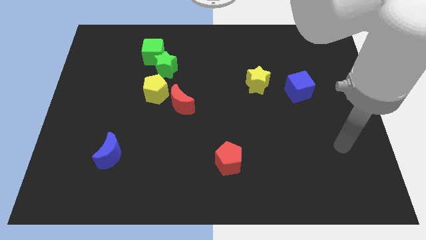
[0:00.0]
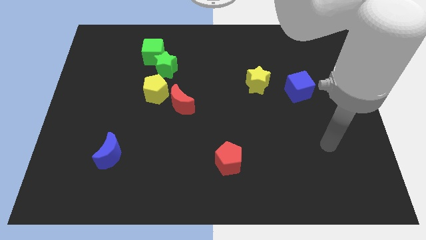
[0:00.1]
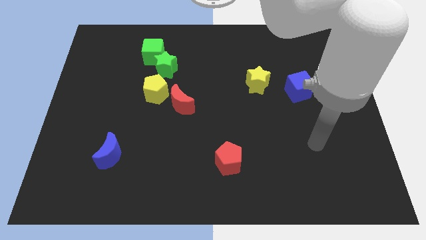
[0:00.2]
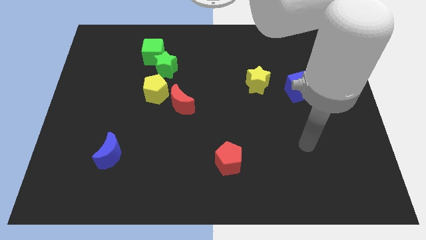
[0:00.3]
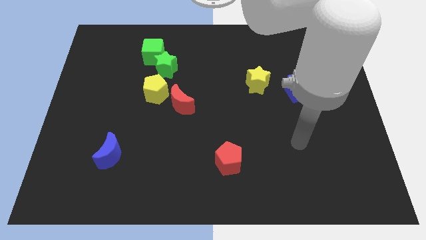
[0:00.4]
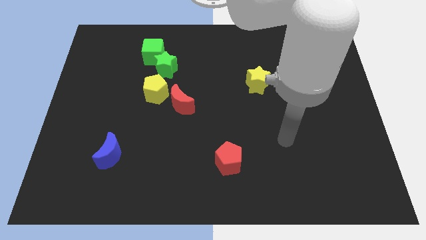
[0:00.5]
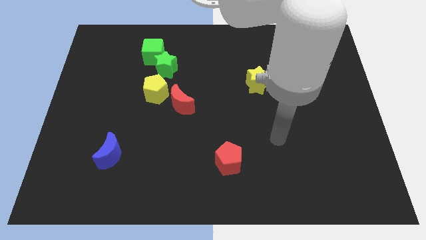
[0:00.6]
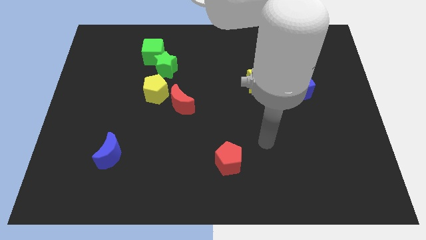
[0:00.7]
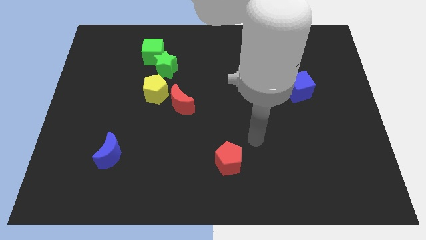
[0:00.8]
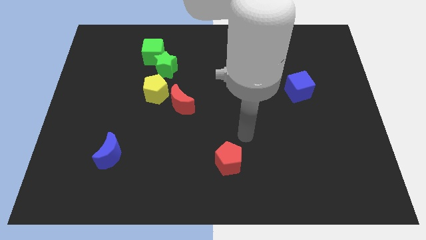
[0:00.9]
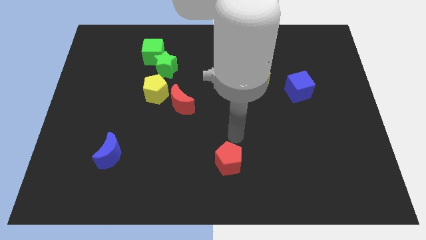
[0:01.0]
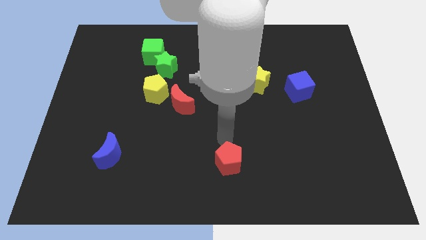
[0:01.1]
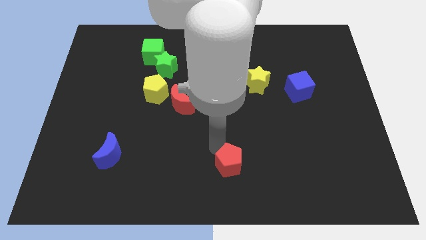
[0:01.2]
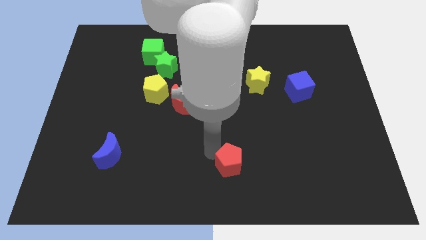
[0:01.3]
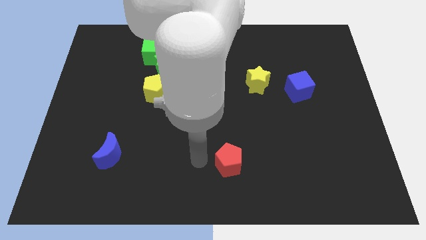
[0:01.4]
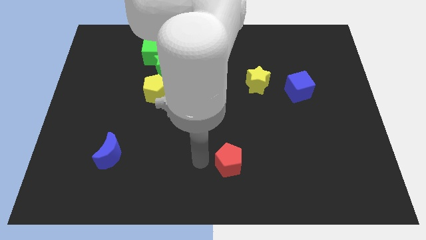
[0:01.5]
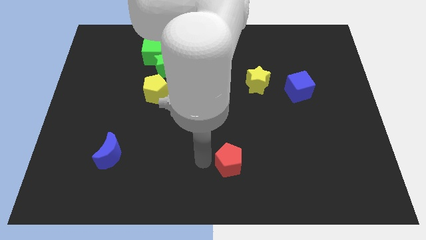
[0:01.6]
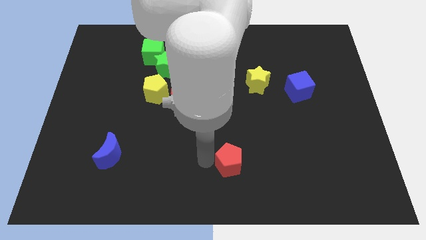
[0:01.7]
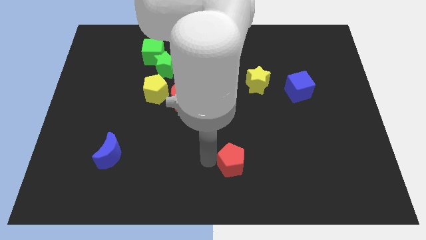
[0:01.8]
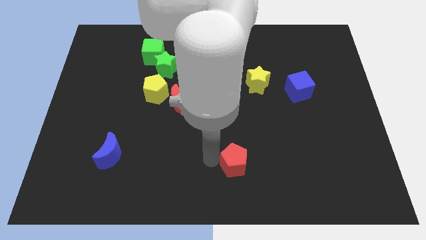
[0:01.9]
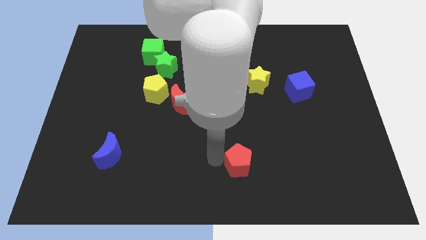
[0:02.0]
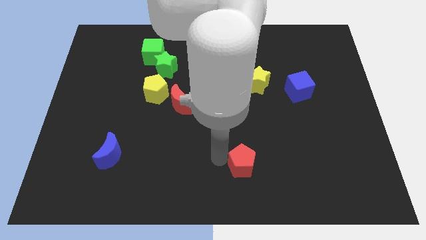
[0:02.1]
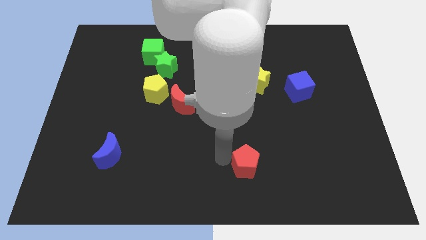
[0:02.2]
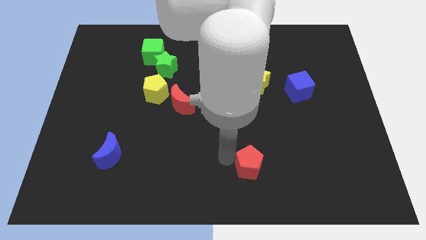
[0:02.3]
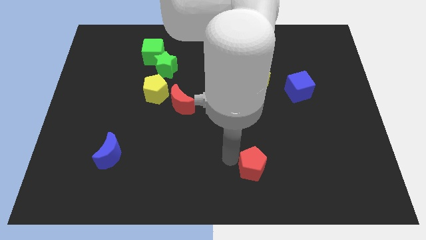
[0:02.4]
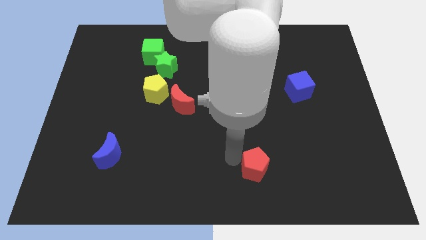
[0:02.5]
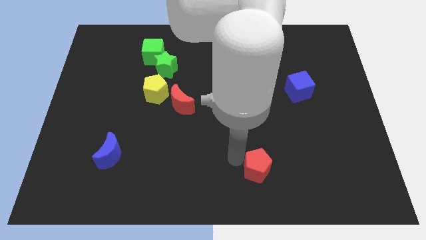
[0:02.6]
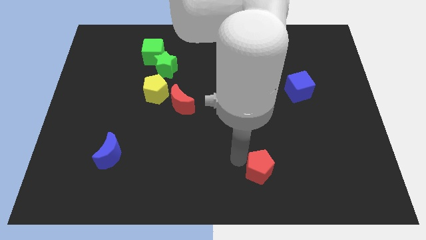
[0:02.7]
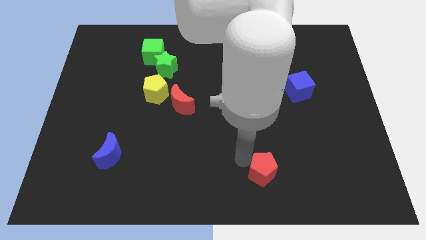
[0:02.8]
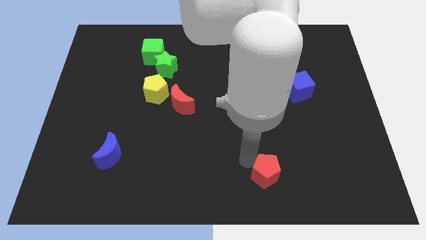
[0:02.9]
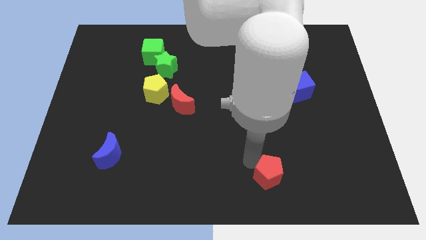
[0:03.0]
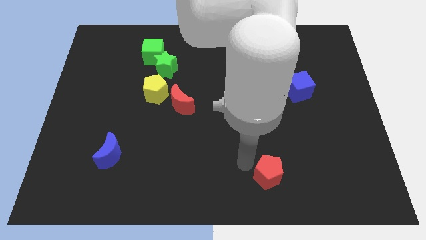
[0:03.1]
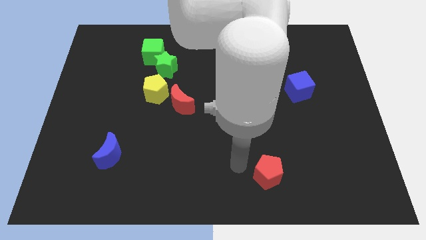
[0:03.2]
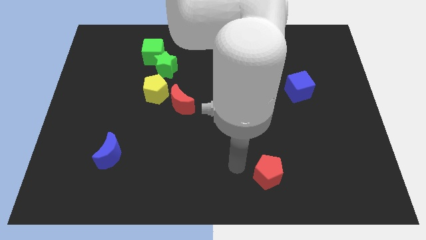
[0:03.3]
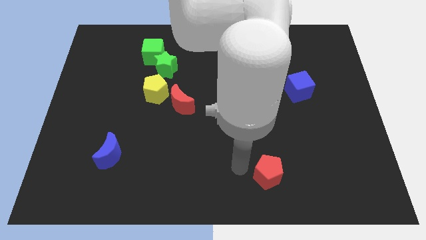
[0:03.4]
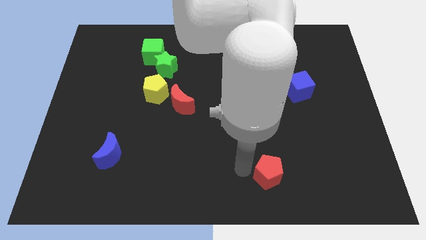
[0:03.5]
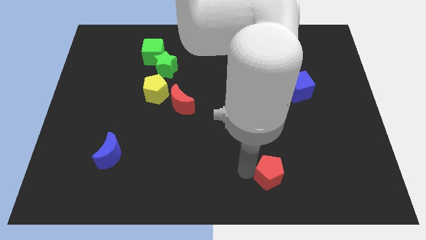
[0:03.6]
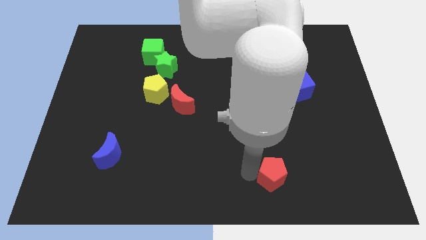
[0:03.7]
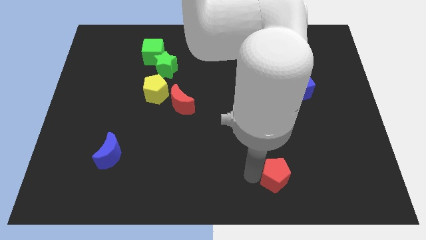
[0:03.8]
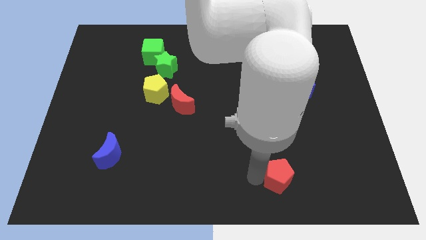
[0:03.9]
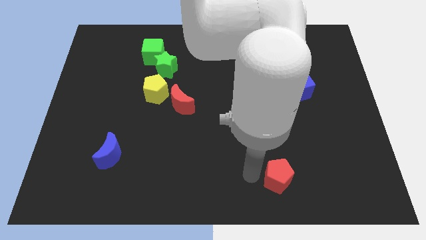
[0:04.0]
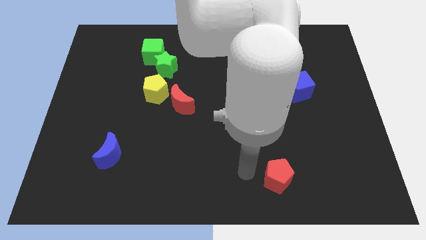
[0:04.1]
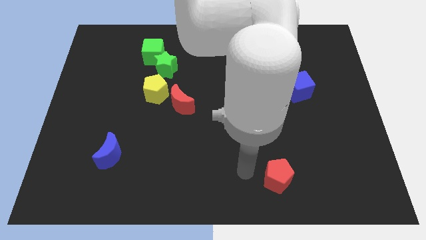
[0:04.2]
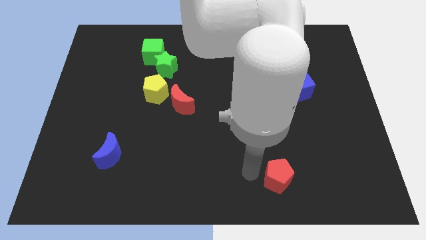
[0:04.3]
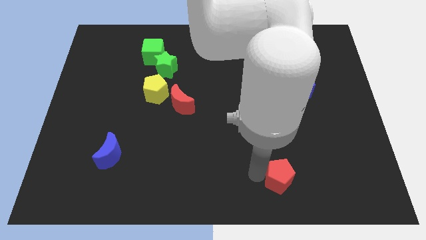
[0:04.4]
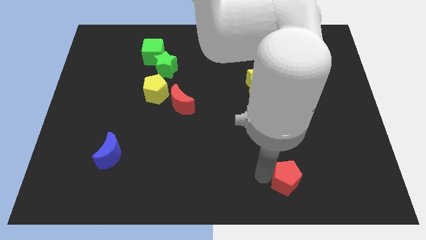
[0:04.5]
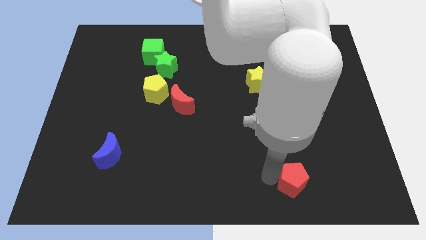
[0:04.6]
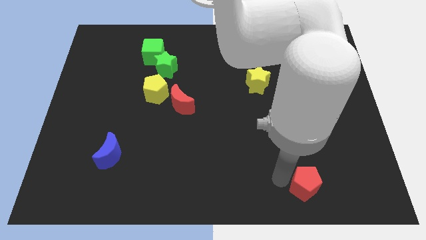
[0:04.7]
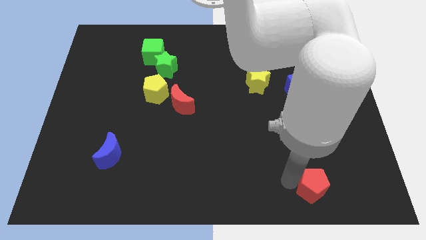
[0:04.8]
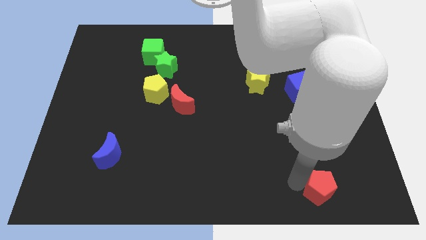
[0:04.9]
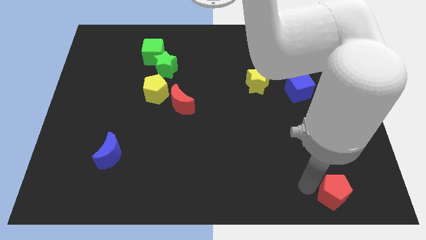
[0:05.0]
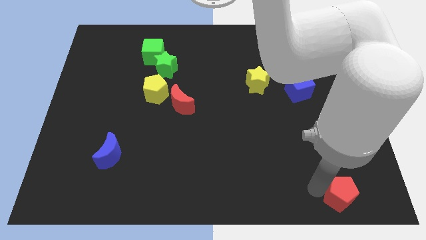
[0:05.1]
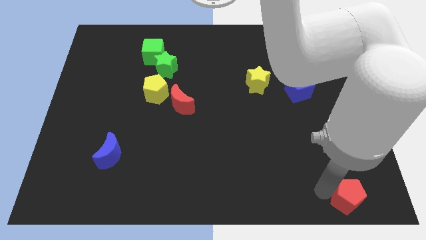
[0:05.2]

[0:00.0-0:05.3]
push the red pentagon to the lower right corner
